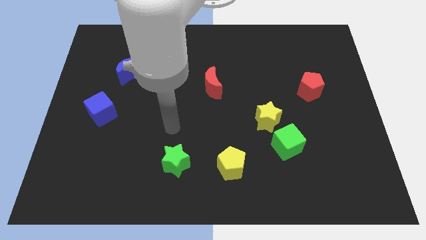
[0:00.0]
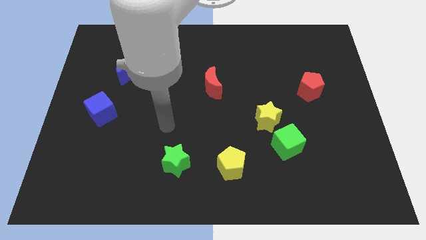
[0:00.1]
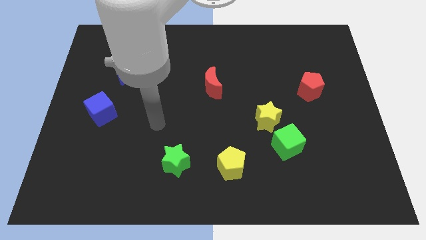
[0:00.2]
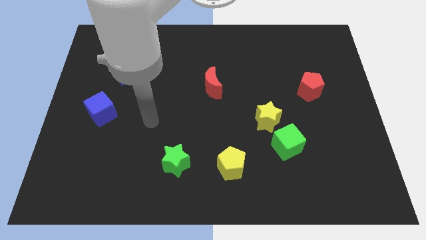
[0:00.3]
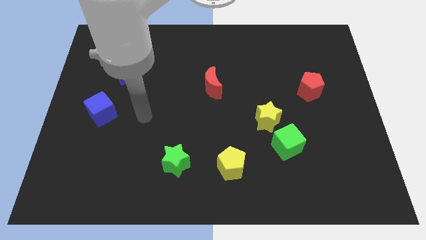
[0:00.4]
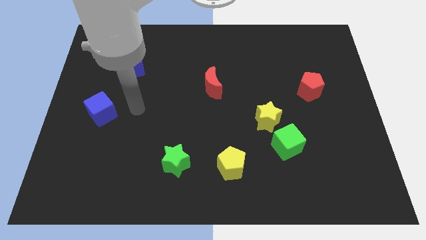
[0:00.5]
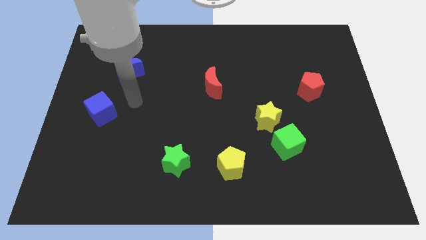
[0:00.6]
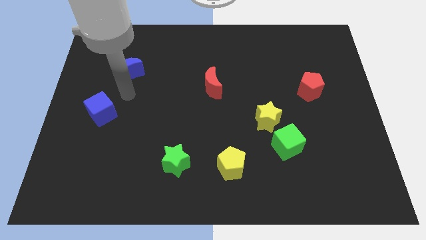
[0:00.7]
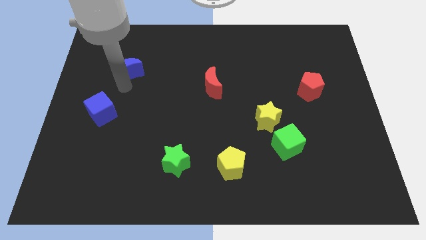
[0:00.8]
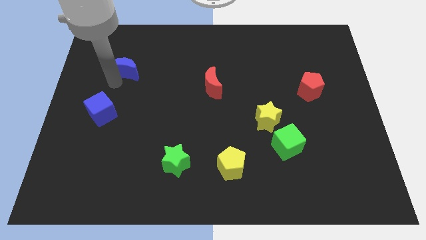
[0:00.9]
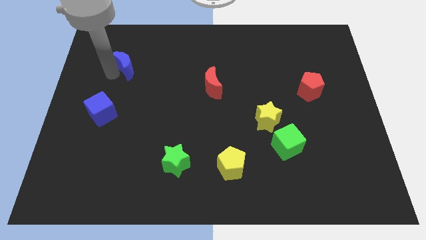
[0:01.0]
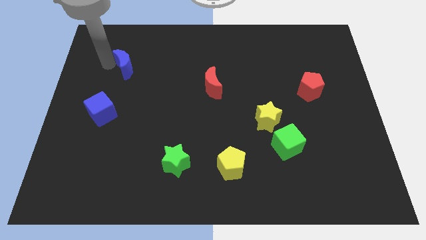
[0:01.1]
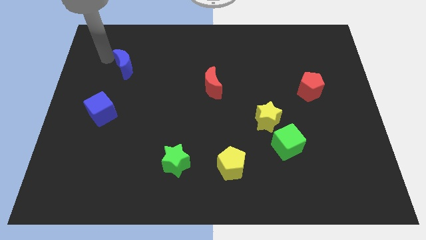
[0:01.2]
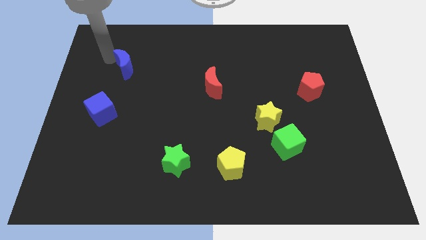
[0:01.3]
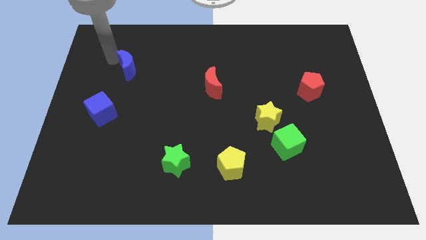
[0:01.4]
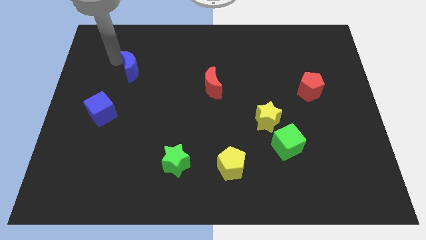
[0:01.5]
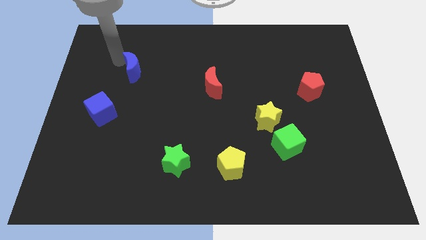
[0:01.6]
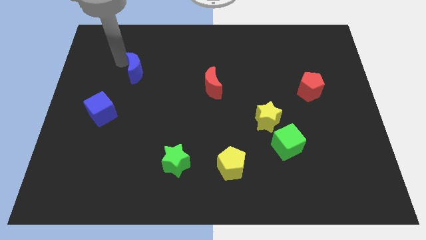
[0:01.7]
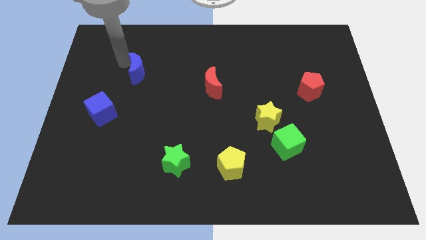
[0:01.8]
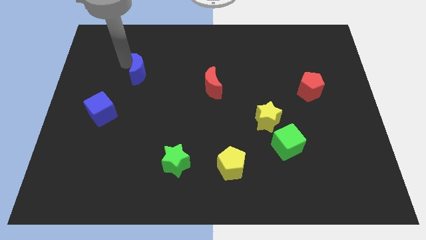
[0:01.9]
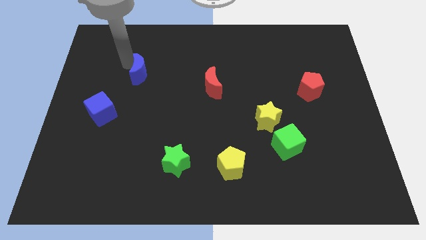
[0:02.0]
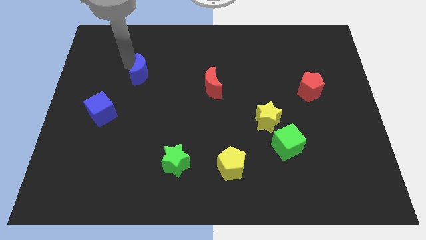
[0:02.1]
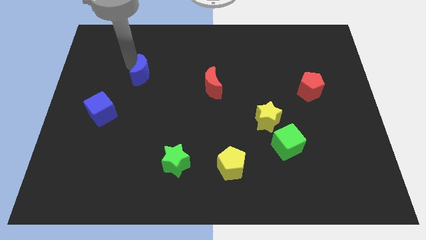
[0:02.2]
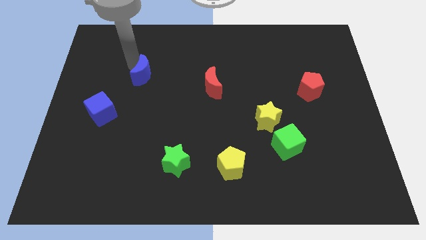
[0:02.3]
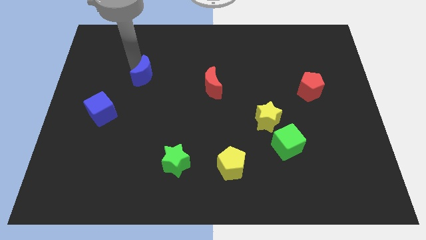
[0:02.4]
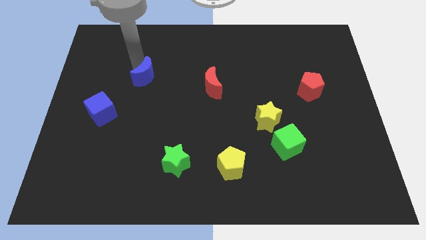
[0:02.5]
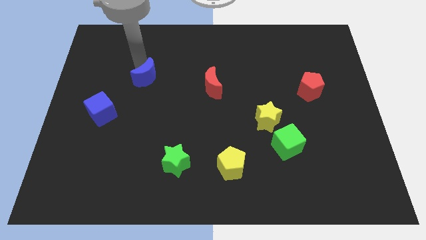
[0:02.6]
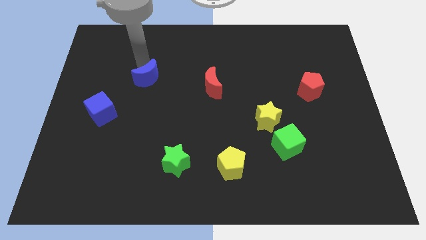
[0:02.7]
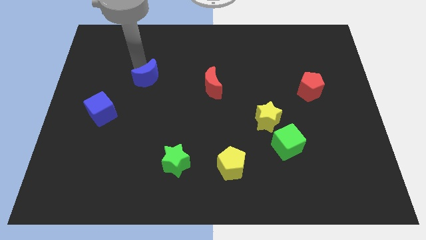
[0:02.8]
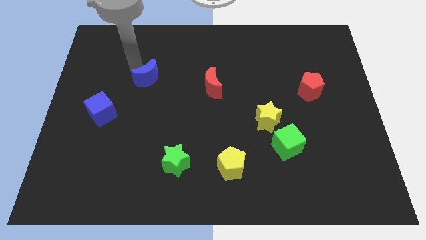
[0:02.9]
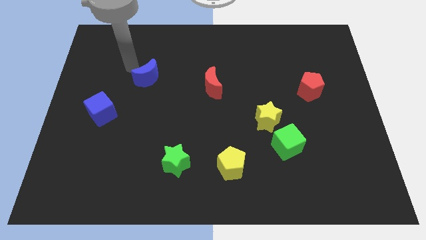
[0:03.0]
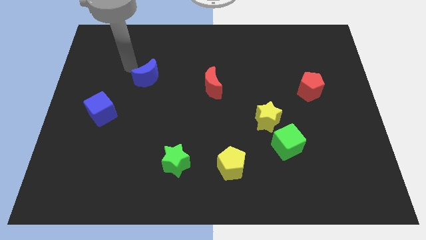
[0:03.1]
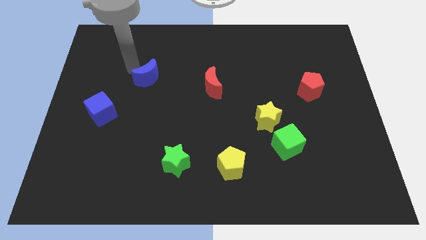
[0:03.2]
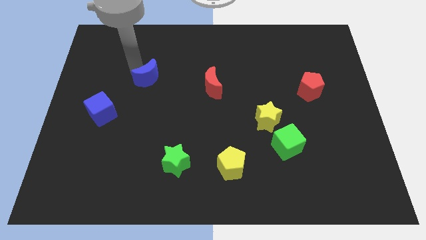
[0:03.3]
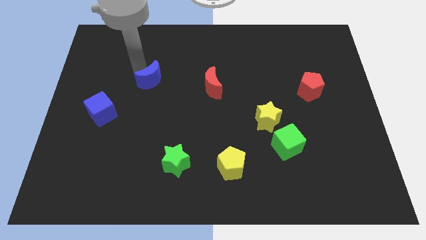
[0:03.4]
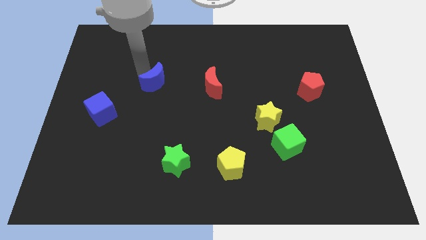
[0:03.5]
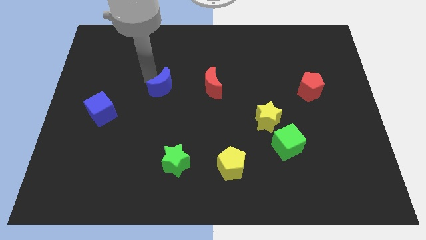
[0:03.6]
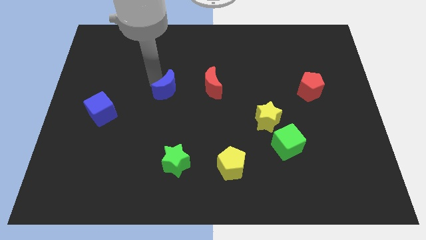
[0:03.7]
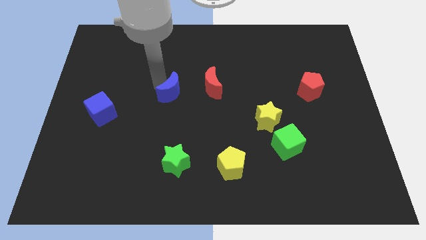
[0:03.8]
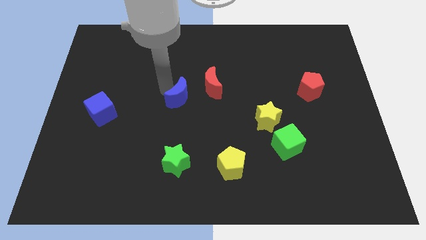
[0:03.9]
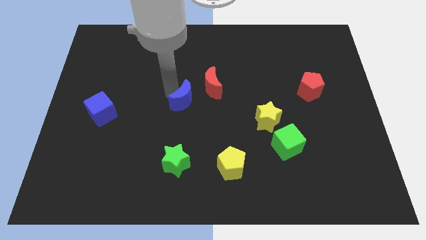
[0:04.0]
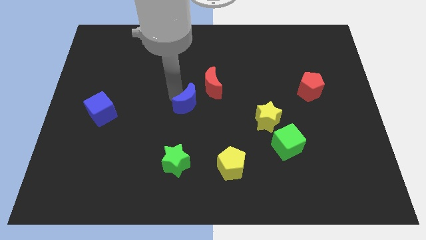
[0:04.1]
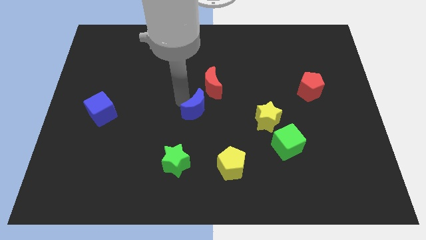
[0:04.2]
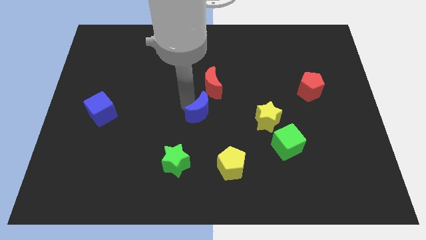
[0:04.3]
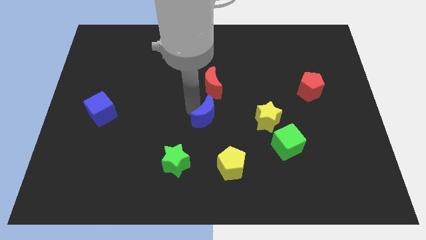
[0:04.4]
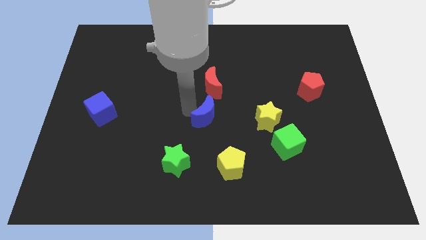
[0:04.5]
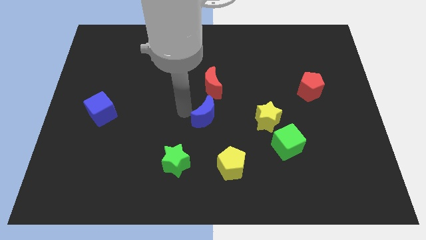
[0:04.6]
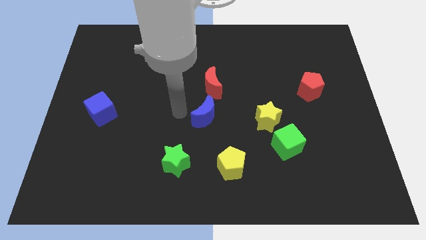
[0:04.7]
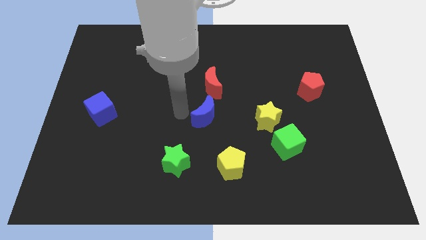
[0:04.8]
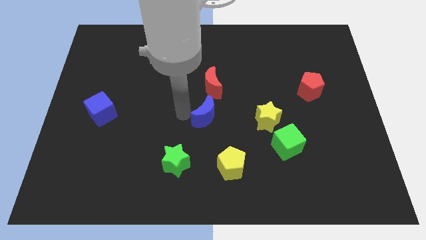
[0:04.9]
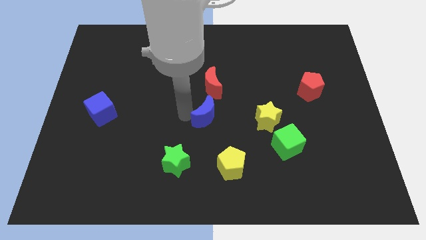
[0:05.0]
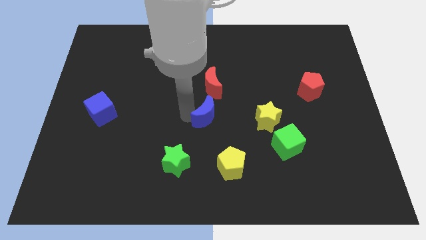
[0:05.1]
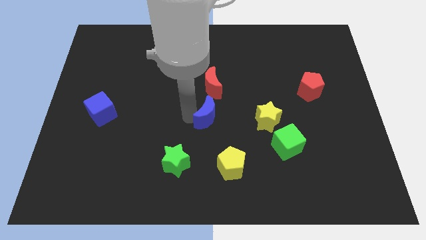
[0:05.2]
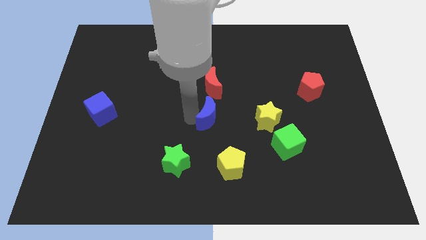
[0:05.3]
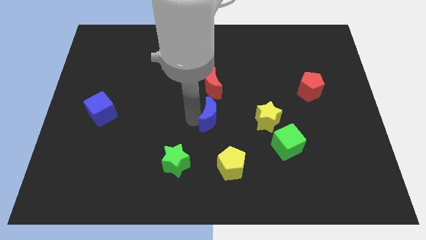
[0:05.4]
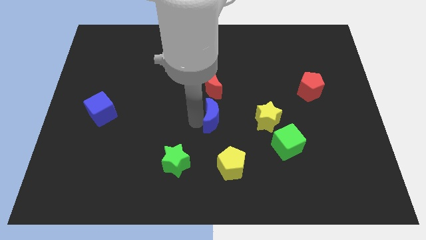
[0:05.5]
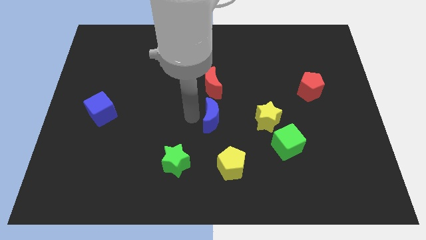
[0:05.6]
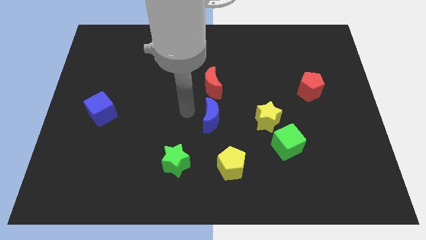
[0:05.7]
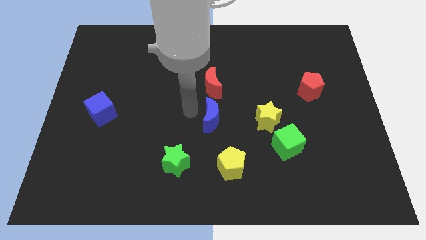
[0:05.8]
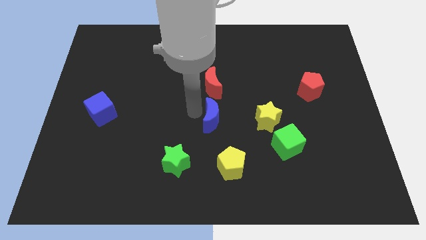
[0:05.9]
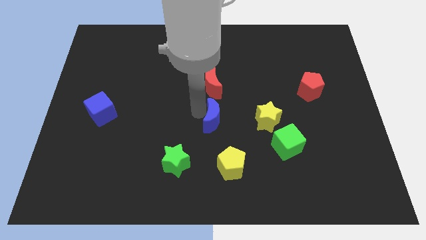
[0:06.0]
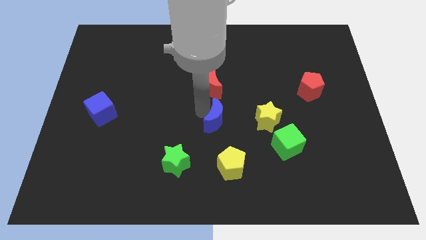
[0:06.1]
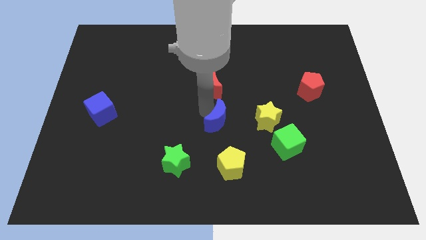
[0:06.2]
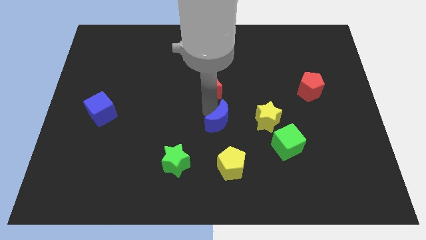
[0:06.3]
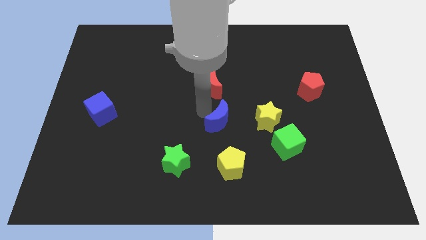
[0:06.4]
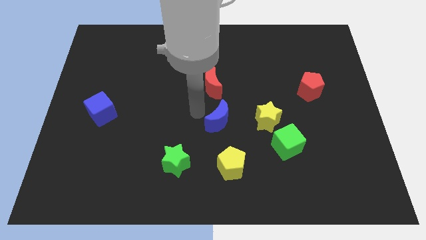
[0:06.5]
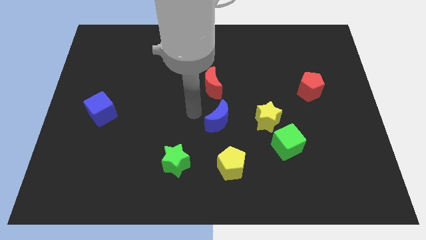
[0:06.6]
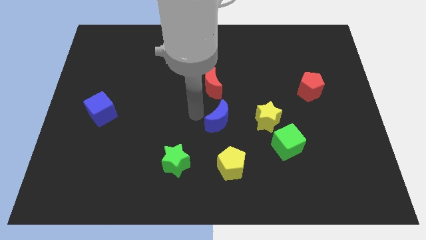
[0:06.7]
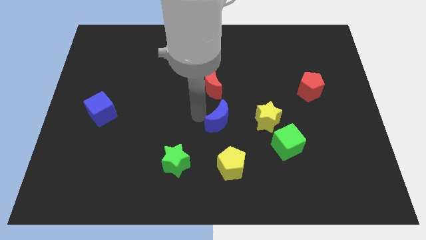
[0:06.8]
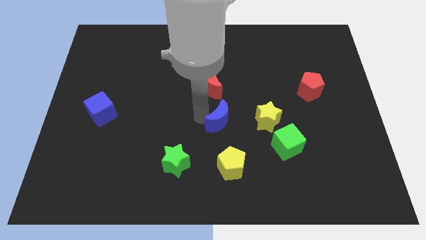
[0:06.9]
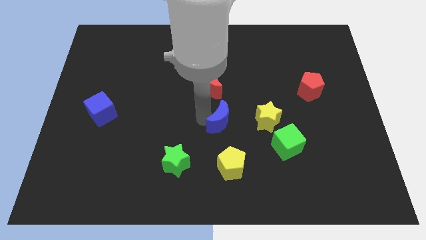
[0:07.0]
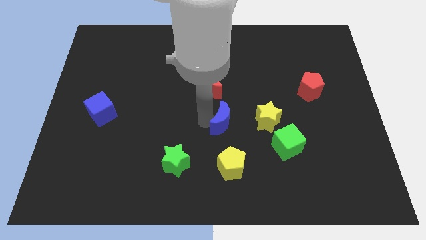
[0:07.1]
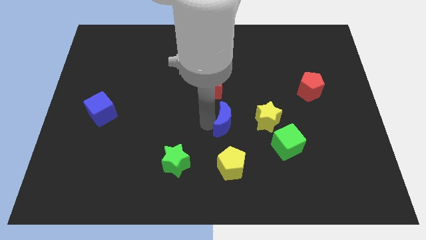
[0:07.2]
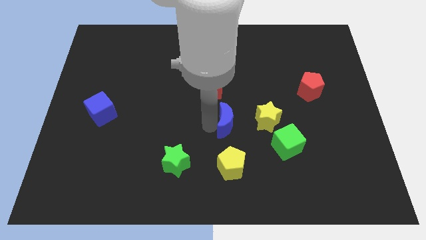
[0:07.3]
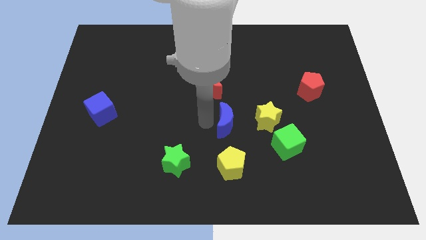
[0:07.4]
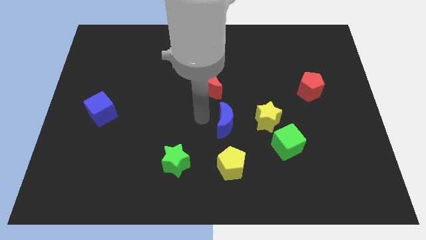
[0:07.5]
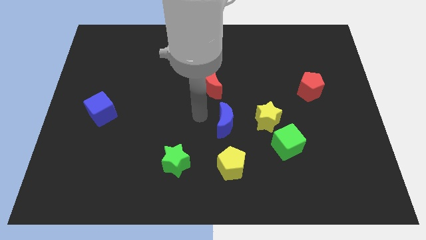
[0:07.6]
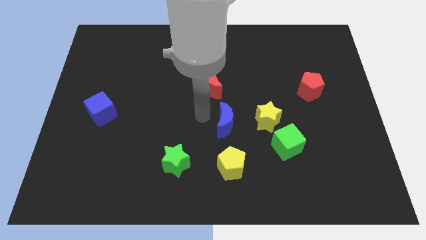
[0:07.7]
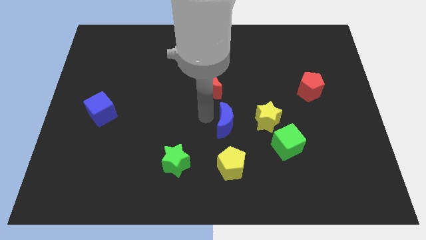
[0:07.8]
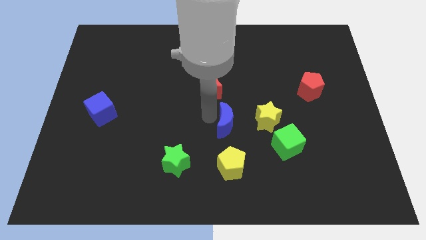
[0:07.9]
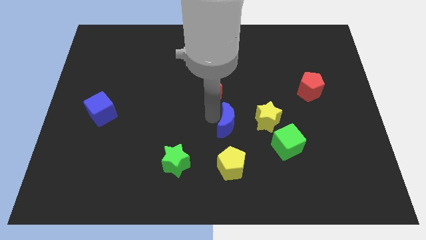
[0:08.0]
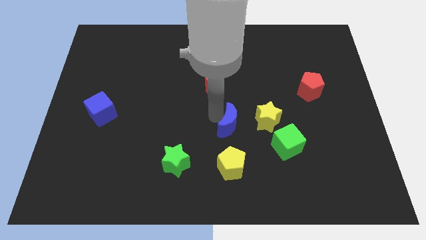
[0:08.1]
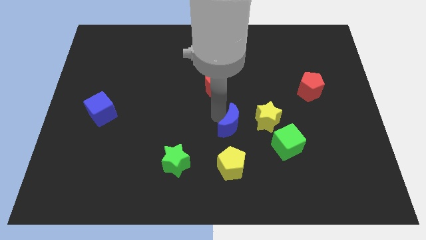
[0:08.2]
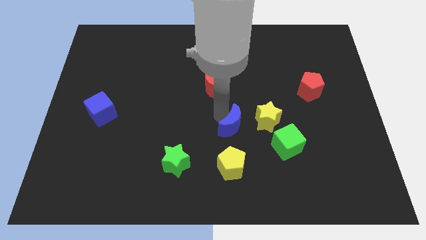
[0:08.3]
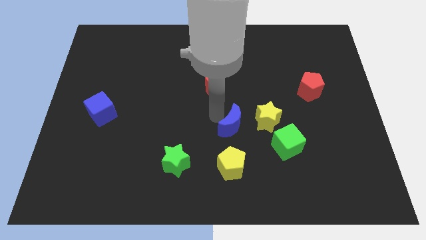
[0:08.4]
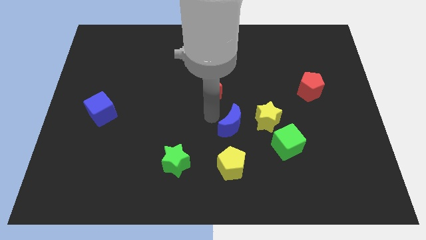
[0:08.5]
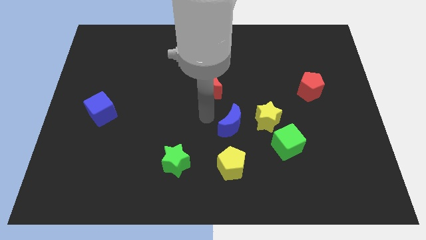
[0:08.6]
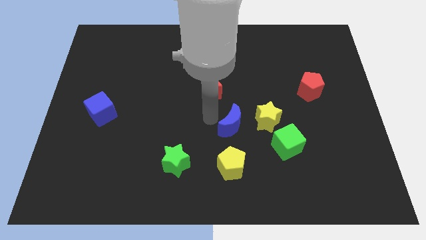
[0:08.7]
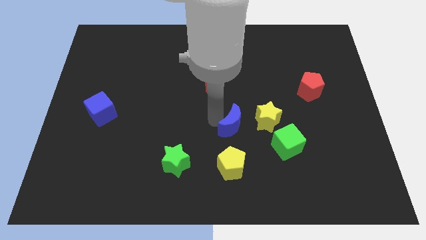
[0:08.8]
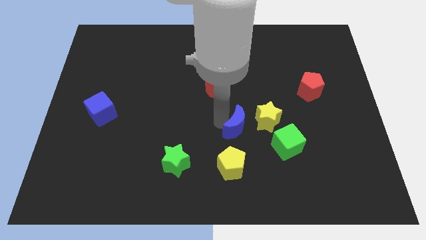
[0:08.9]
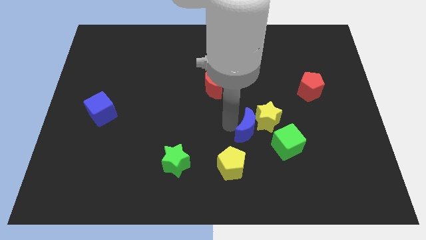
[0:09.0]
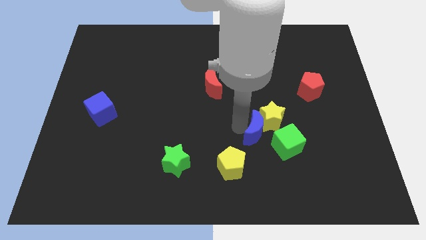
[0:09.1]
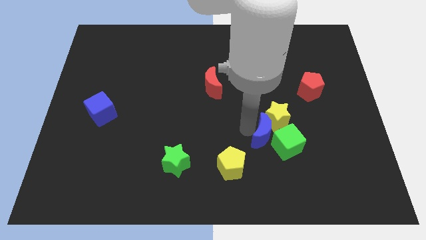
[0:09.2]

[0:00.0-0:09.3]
push the blue moon towards the green cube
